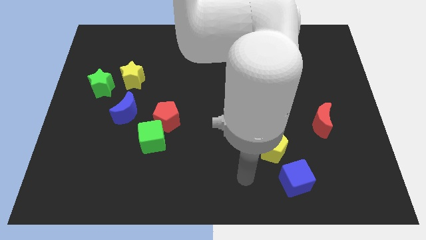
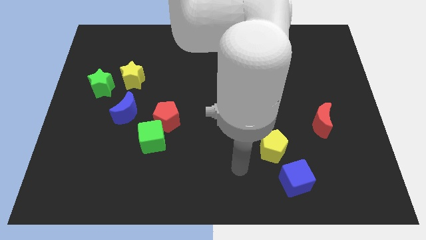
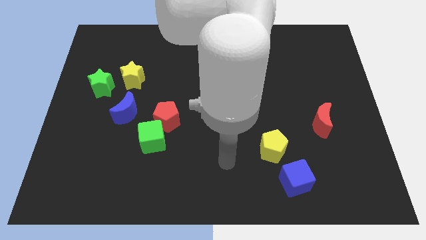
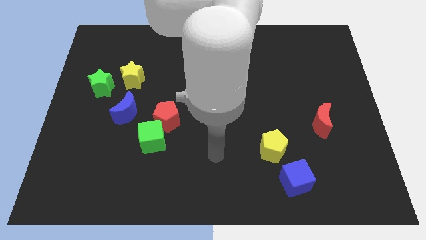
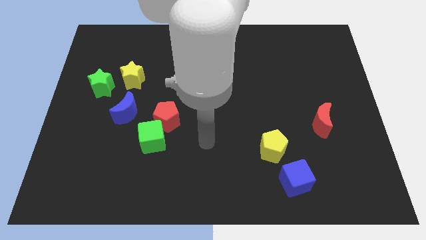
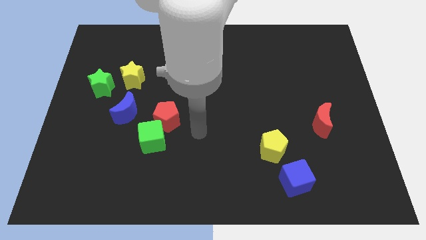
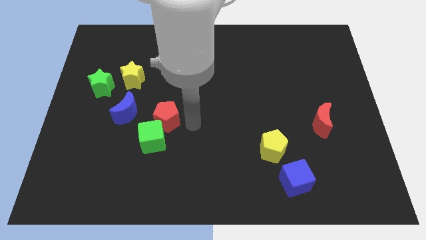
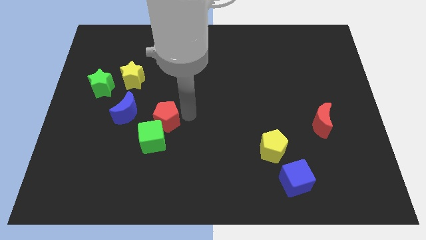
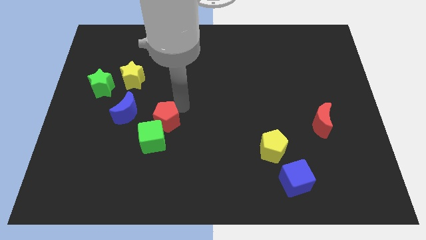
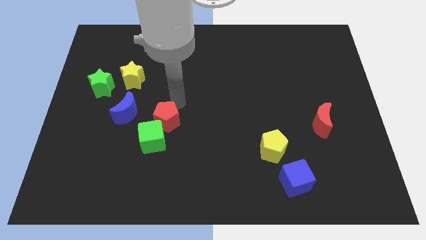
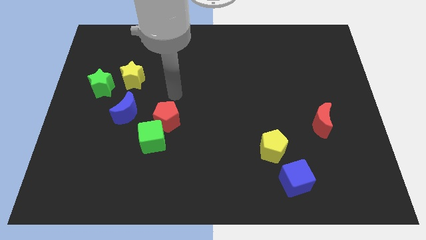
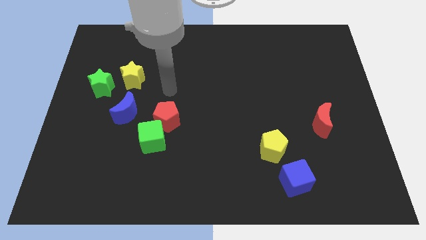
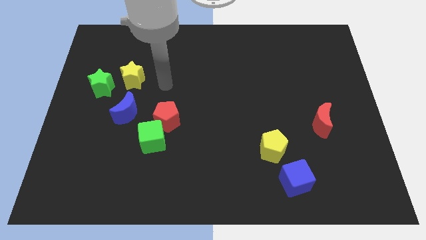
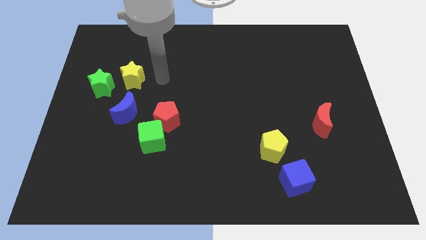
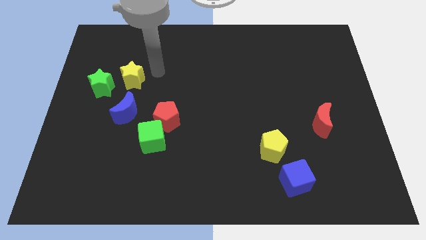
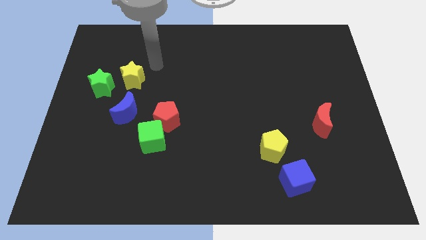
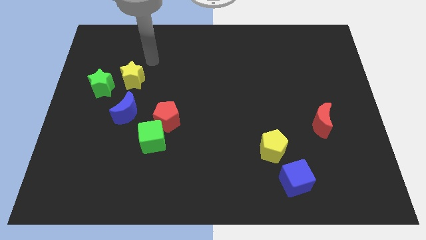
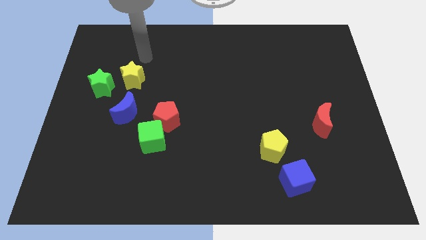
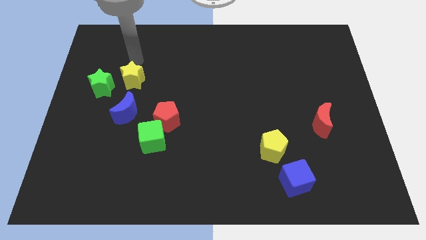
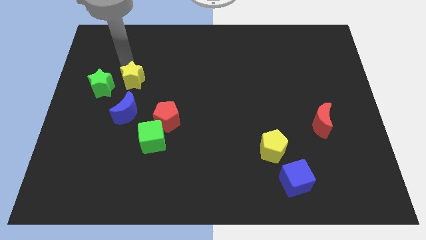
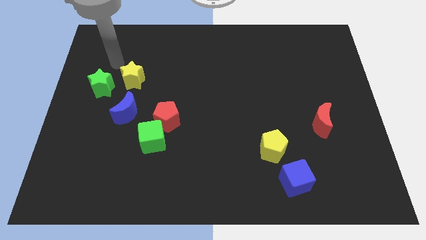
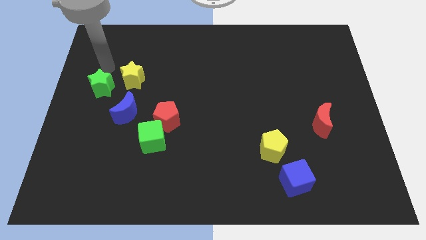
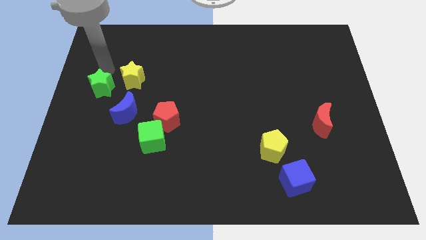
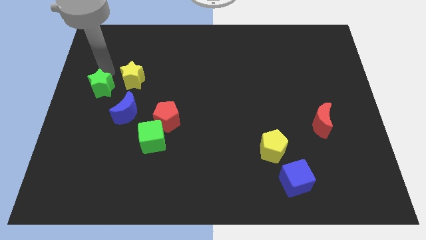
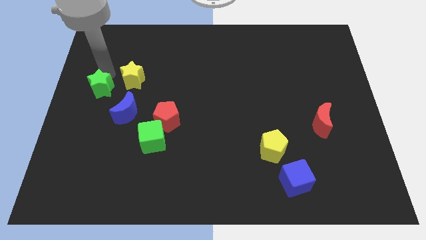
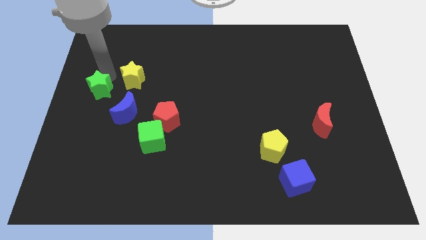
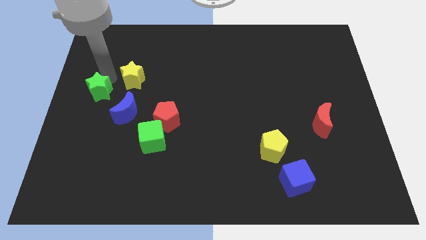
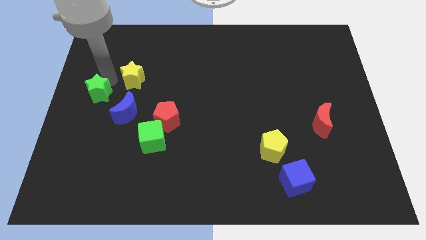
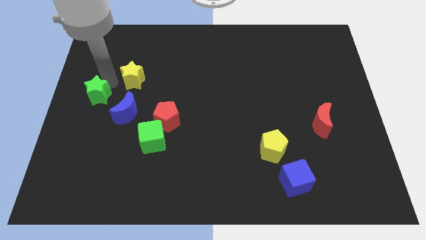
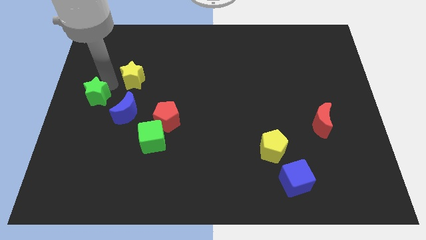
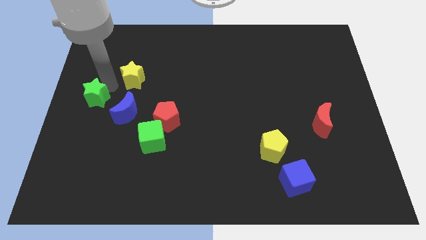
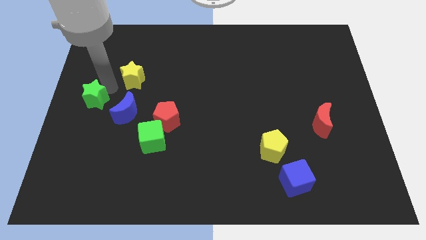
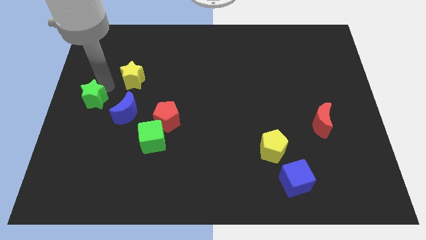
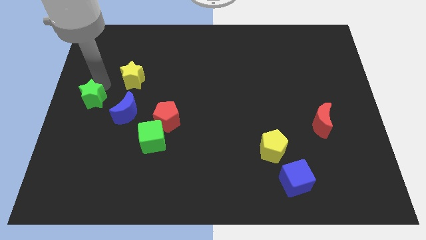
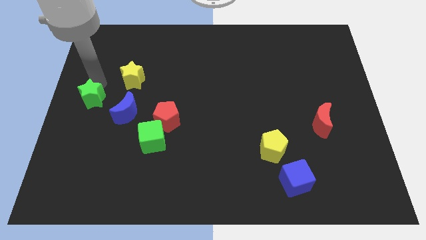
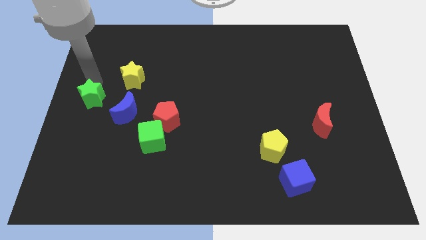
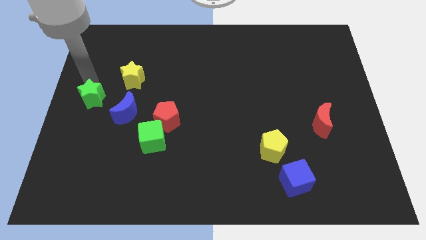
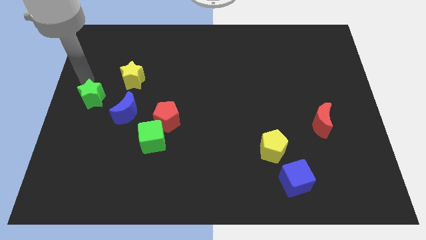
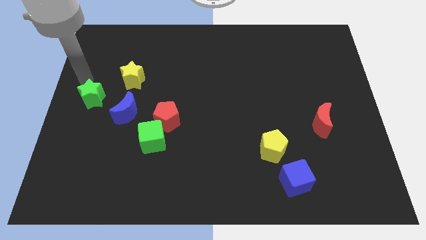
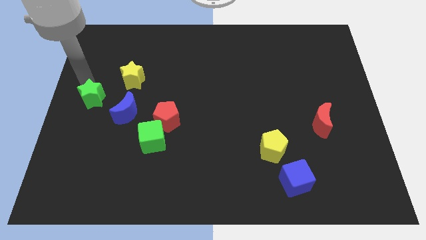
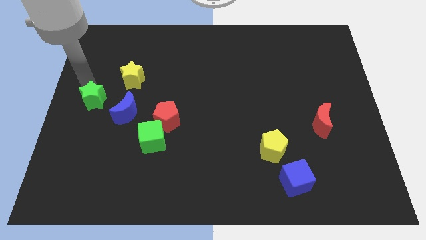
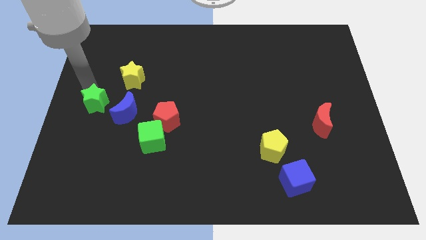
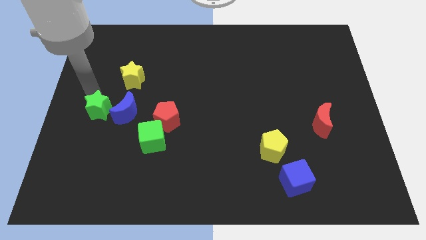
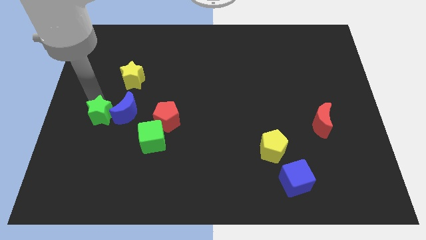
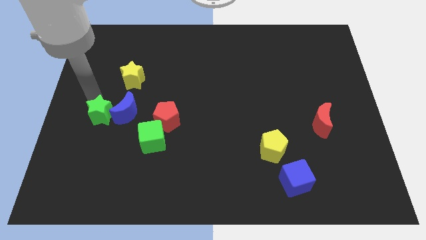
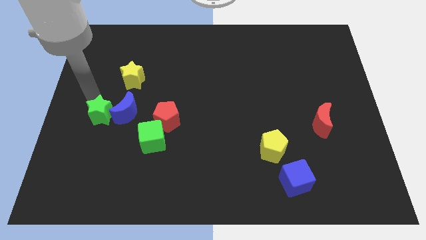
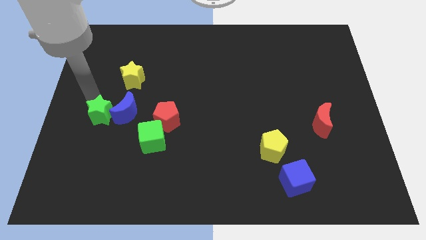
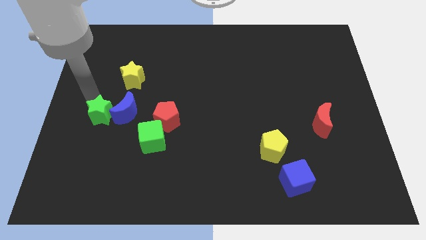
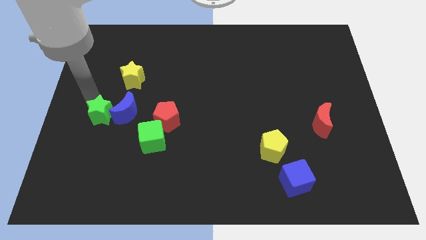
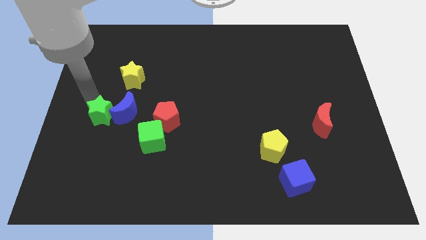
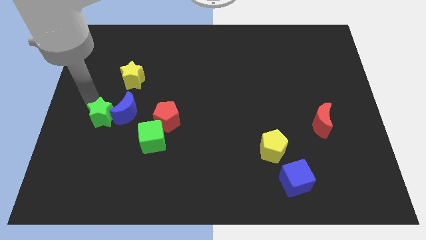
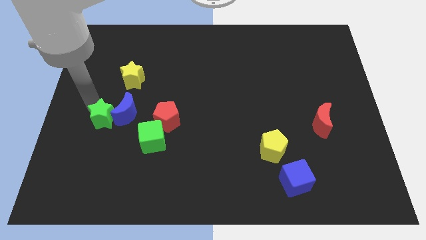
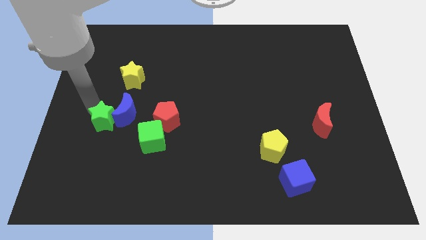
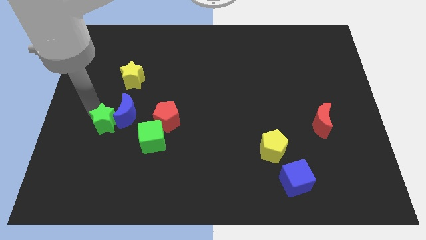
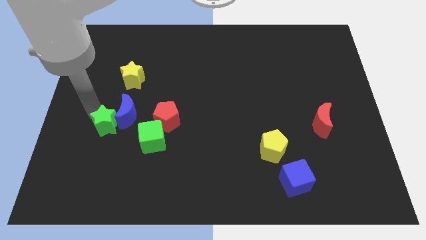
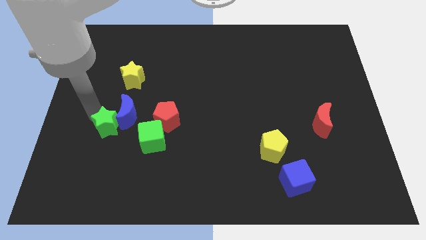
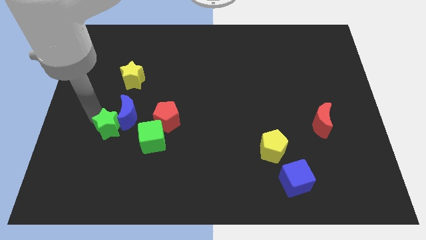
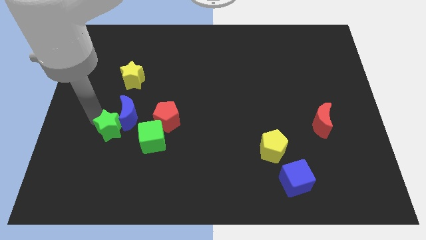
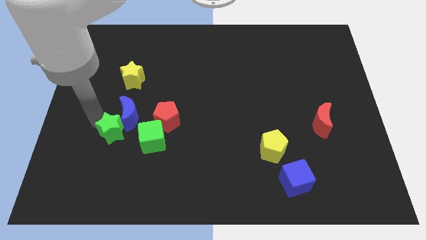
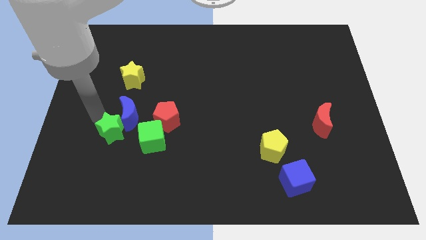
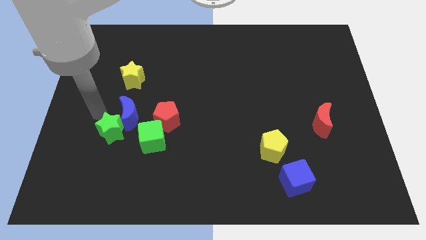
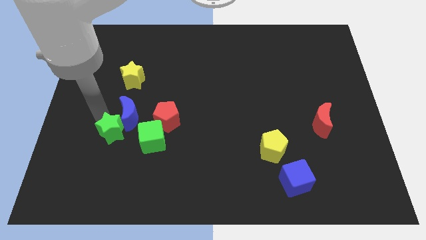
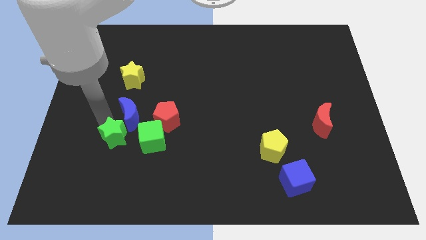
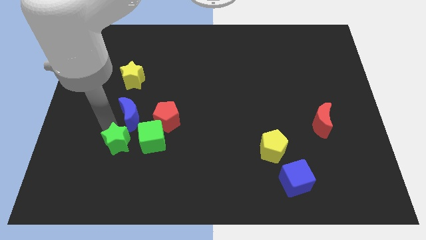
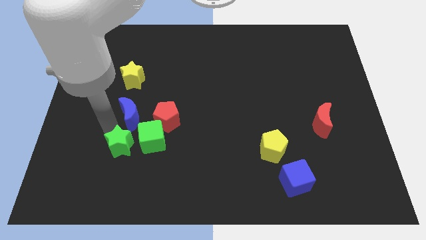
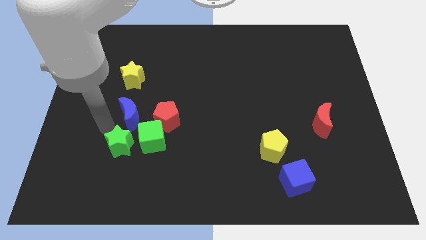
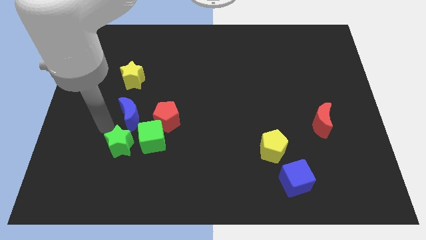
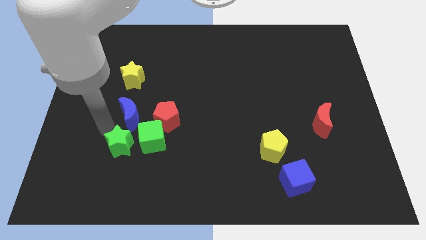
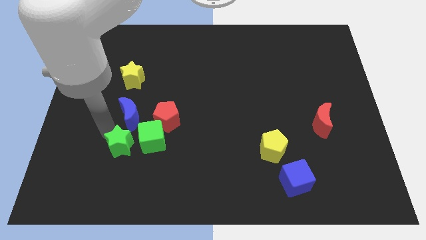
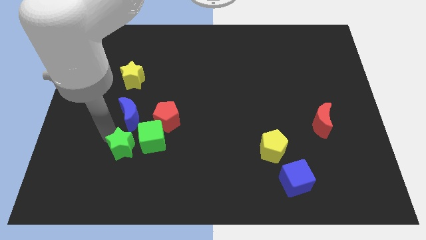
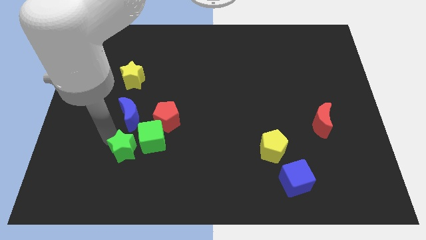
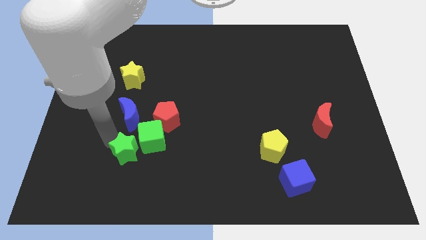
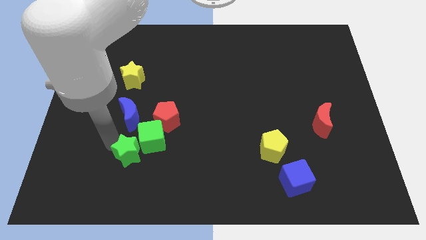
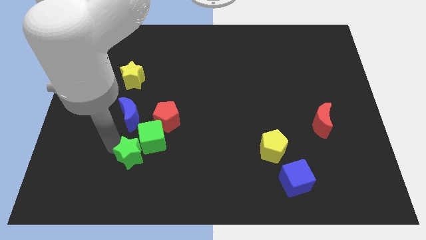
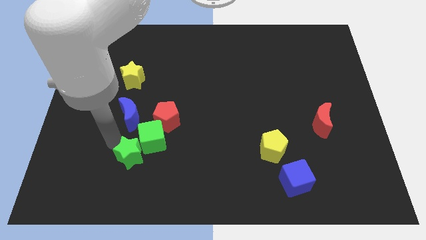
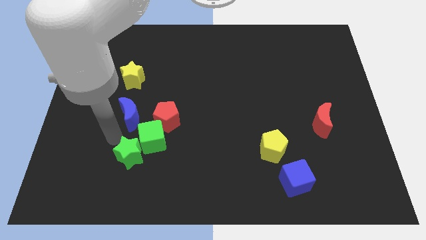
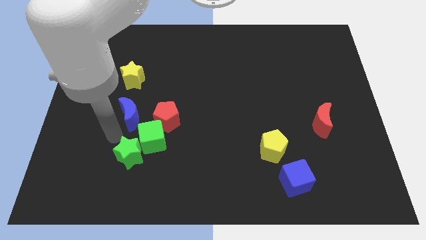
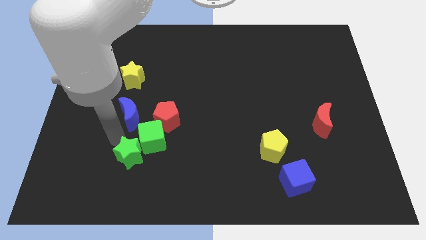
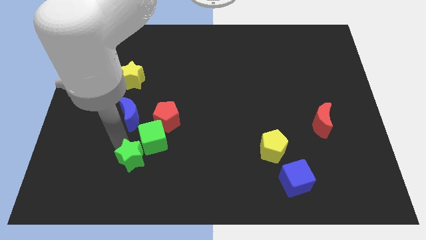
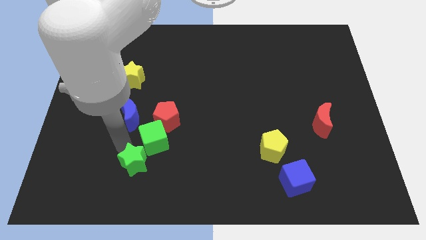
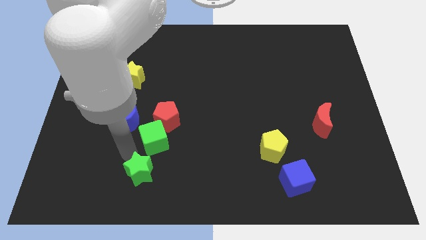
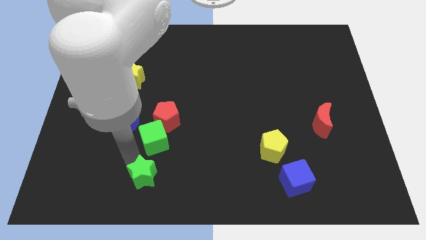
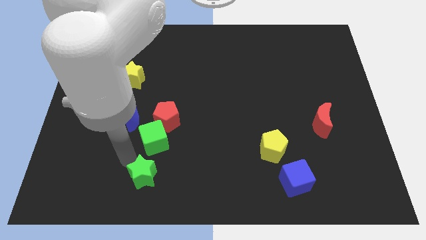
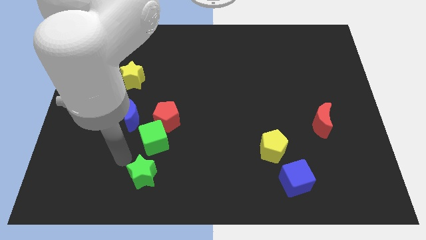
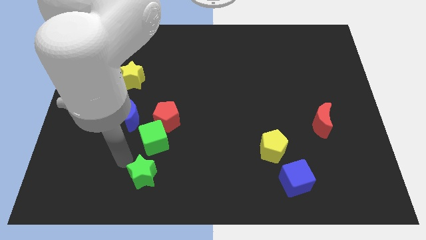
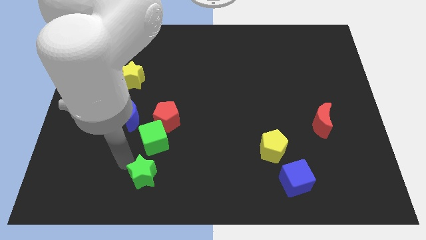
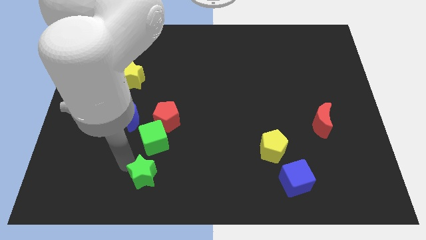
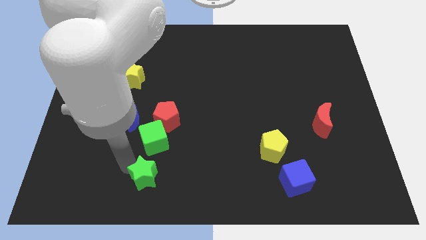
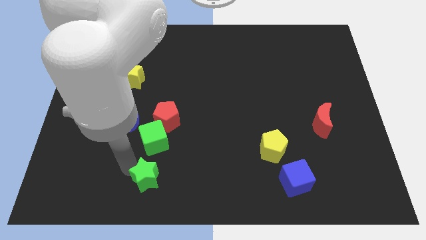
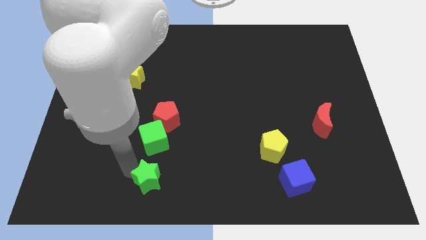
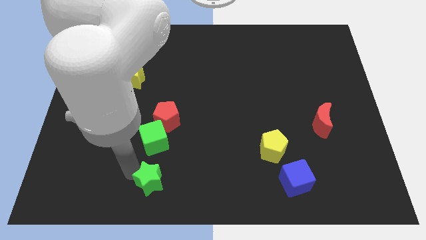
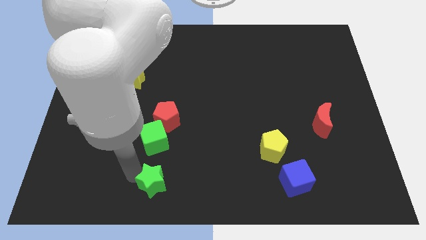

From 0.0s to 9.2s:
slide the green star to the bottom
